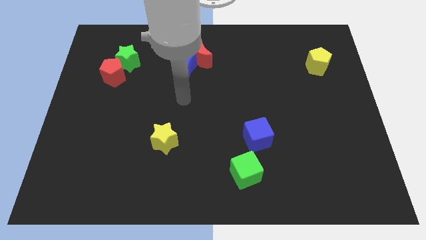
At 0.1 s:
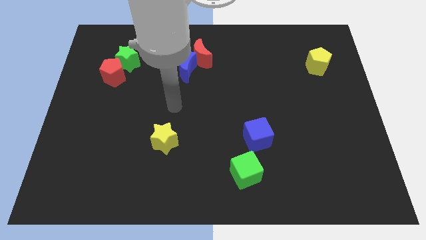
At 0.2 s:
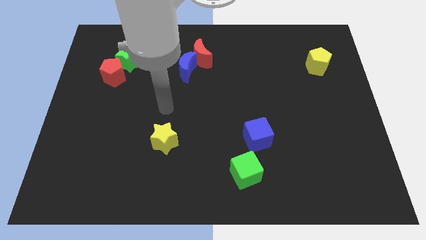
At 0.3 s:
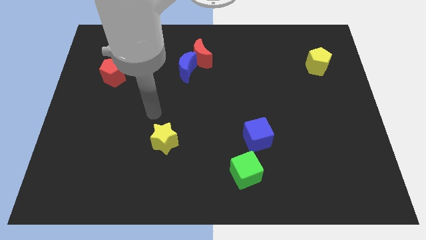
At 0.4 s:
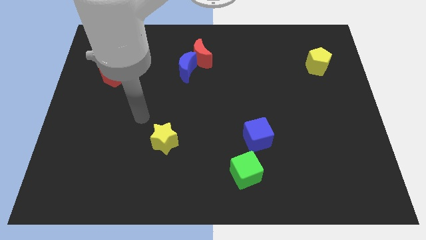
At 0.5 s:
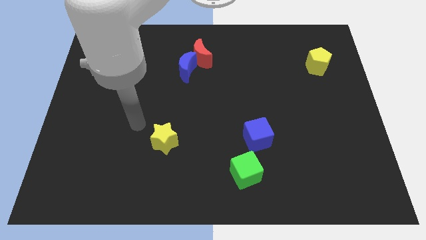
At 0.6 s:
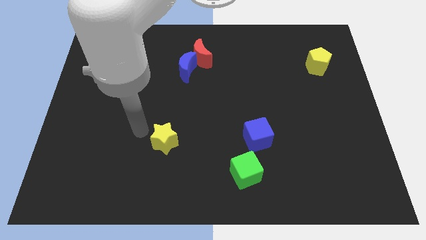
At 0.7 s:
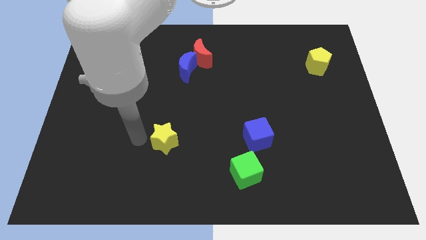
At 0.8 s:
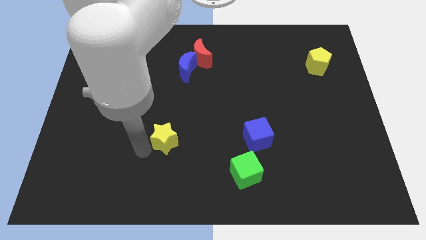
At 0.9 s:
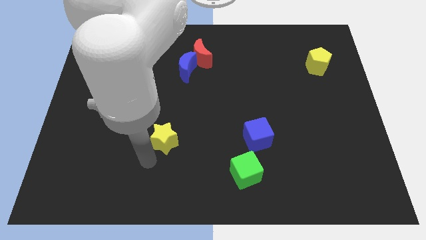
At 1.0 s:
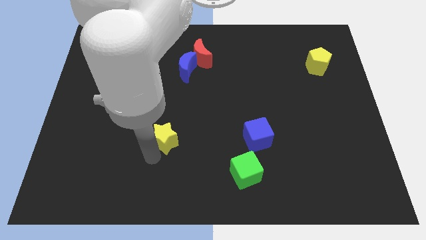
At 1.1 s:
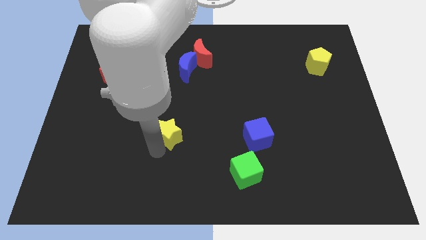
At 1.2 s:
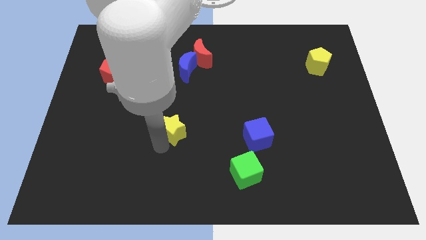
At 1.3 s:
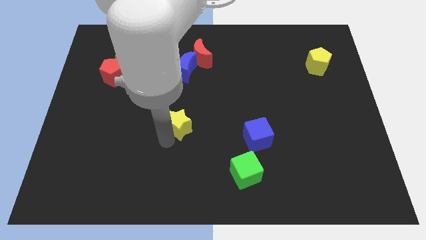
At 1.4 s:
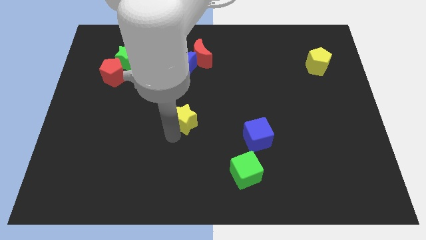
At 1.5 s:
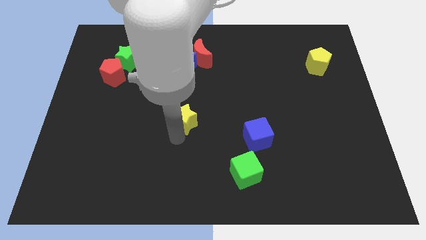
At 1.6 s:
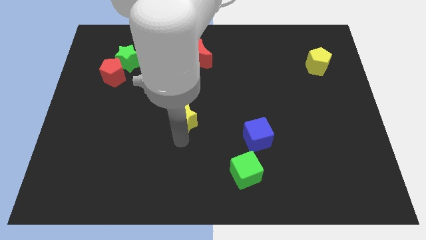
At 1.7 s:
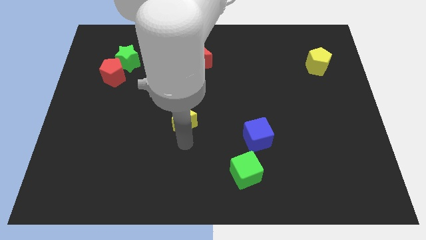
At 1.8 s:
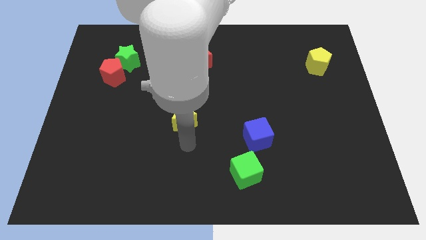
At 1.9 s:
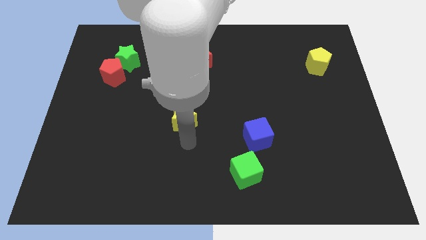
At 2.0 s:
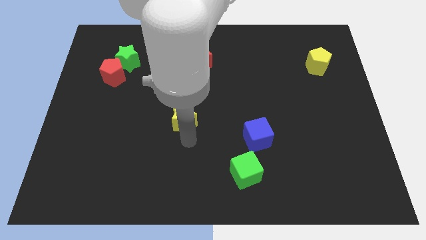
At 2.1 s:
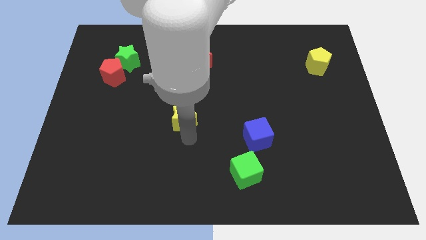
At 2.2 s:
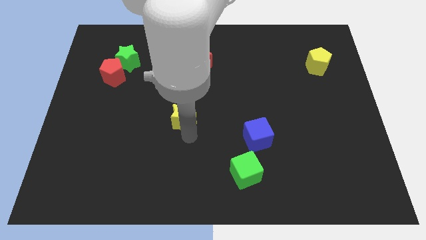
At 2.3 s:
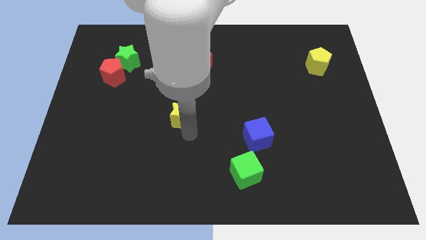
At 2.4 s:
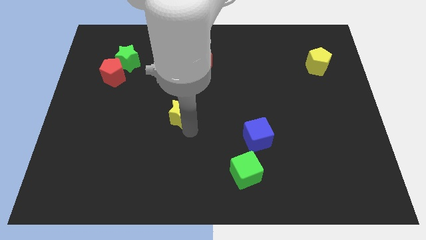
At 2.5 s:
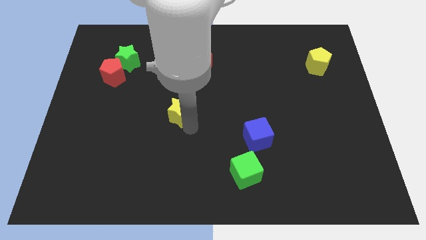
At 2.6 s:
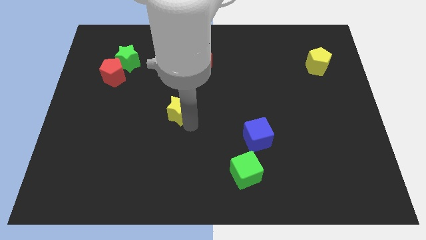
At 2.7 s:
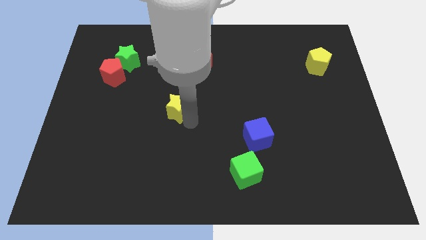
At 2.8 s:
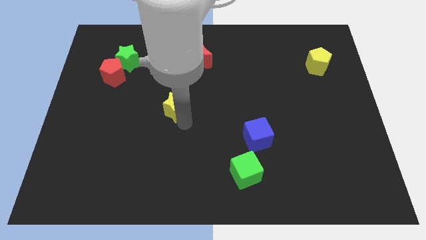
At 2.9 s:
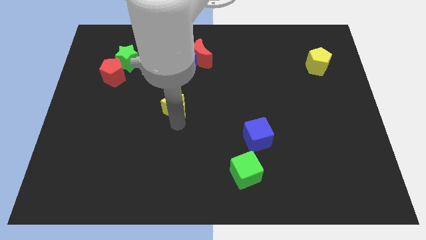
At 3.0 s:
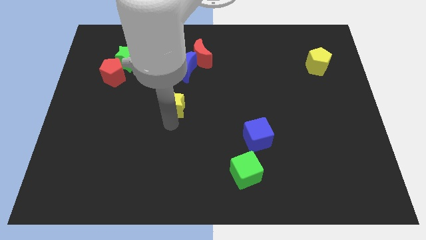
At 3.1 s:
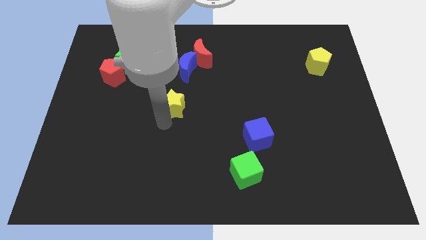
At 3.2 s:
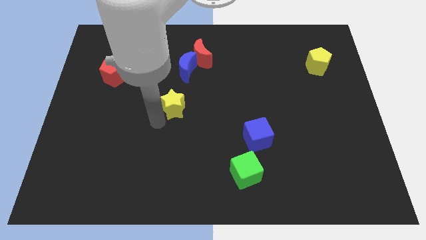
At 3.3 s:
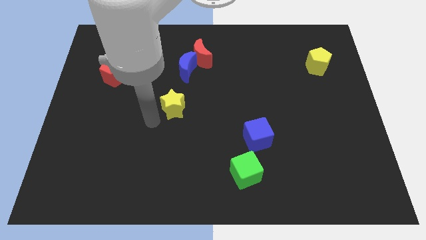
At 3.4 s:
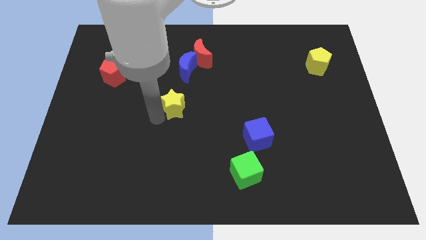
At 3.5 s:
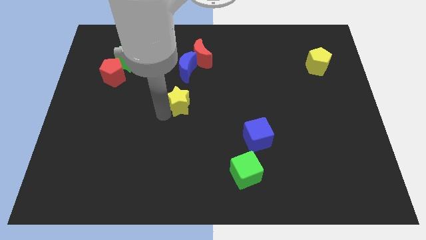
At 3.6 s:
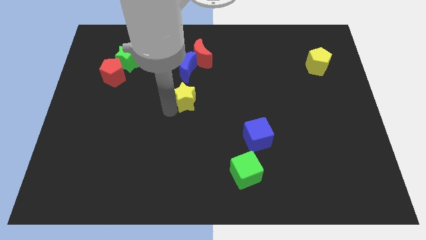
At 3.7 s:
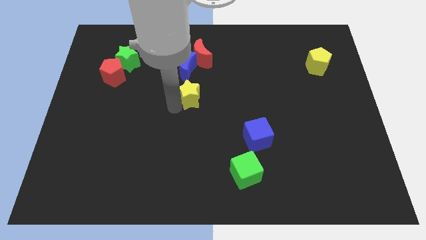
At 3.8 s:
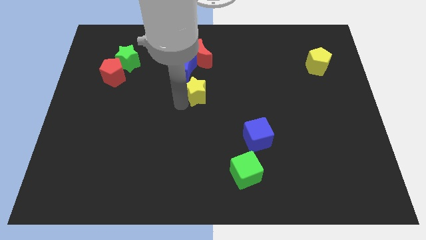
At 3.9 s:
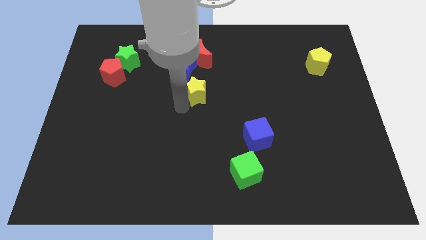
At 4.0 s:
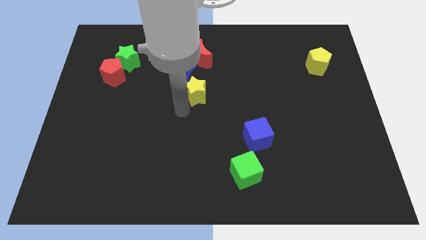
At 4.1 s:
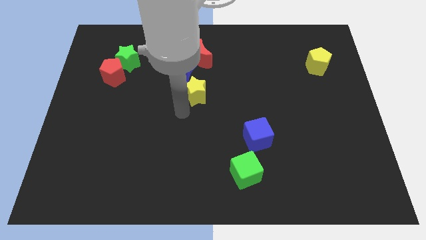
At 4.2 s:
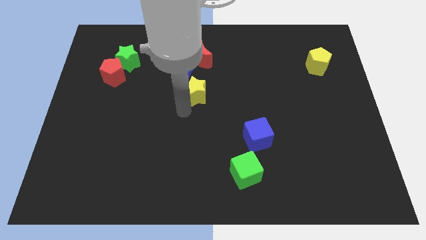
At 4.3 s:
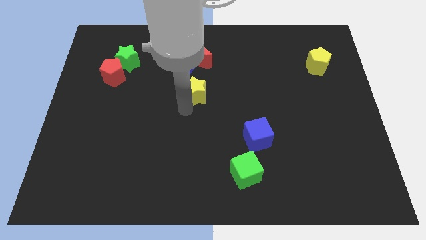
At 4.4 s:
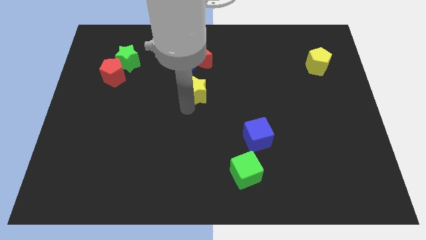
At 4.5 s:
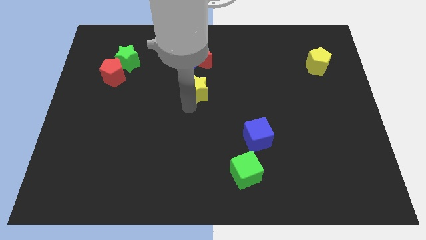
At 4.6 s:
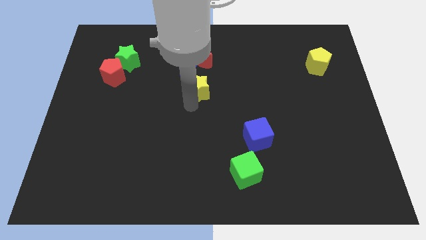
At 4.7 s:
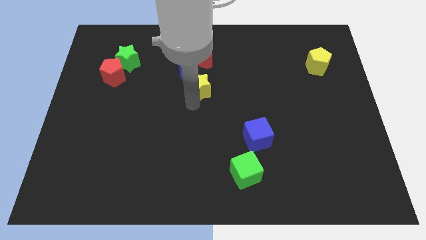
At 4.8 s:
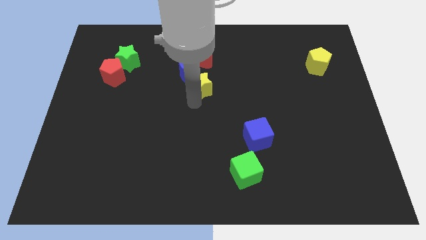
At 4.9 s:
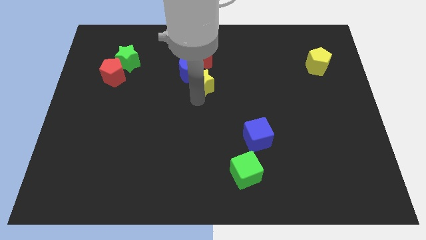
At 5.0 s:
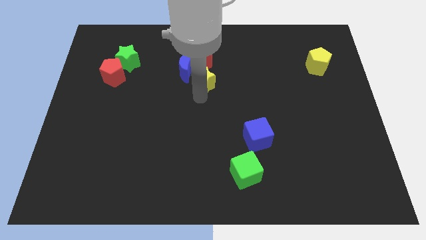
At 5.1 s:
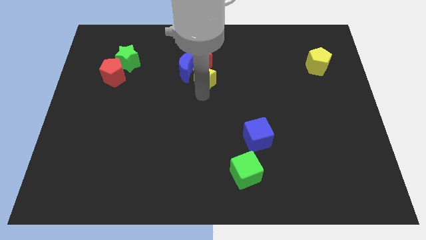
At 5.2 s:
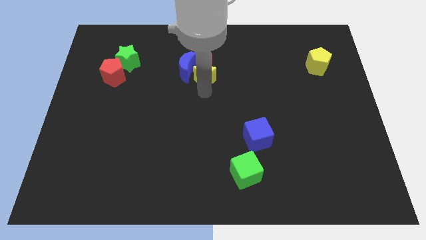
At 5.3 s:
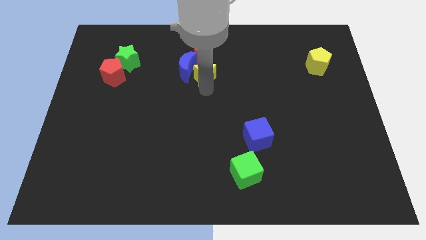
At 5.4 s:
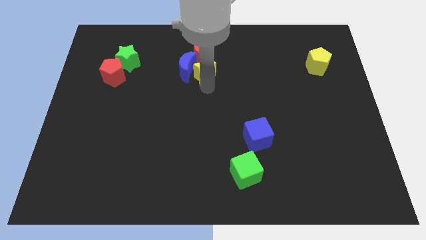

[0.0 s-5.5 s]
slide the yellow star close to the red moon

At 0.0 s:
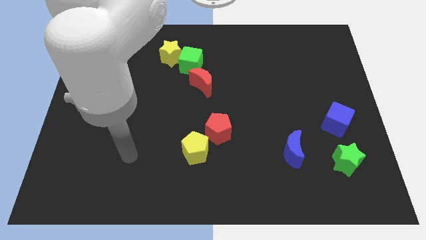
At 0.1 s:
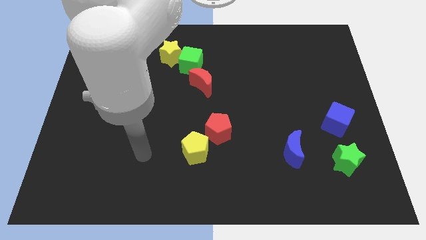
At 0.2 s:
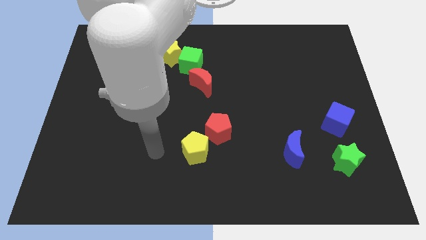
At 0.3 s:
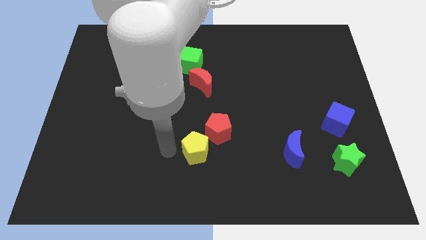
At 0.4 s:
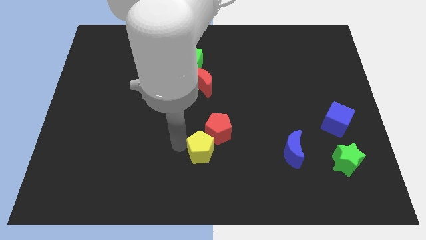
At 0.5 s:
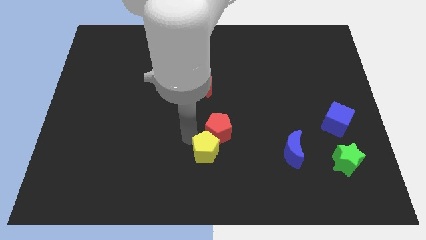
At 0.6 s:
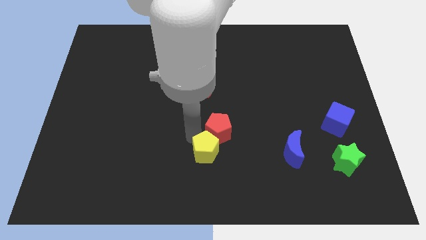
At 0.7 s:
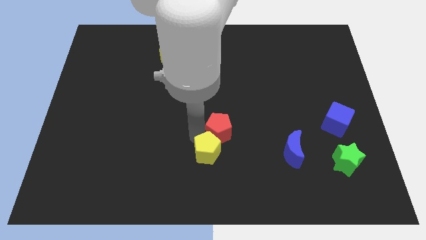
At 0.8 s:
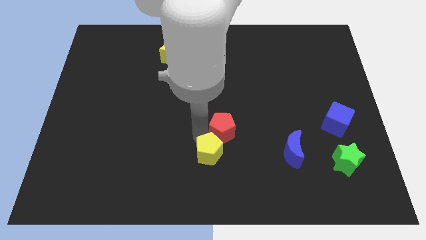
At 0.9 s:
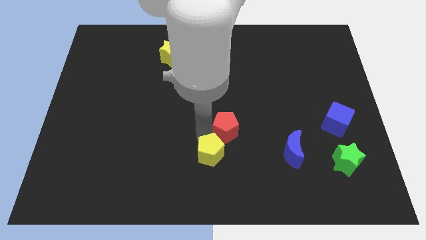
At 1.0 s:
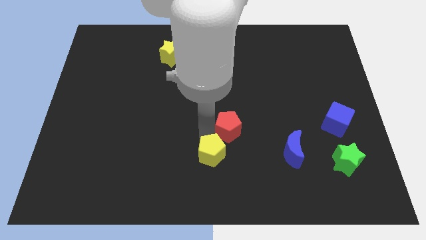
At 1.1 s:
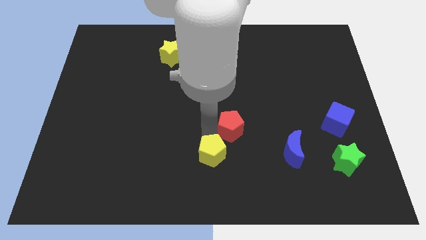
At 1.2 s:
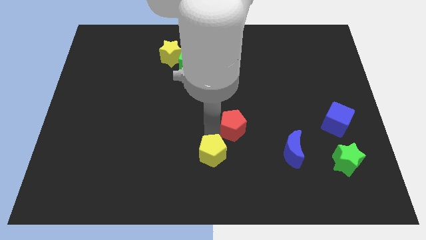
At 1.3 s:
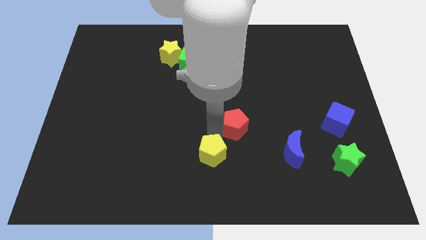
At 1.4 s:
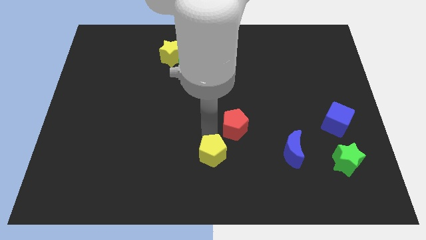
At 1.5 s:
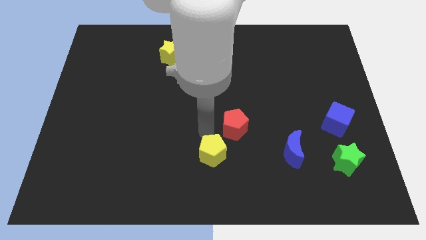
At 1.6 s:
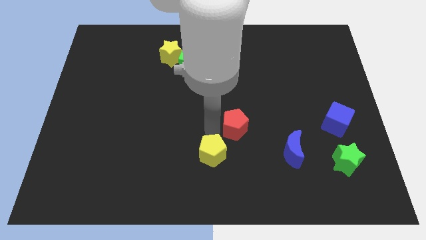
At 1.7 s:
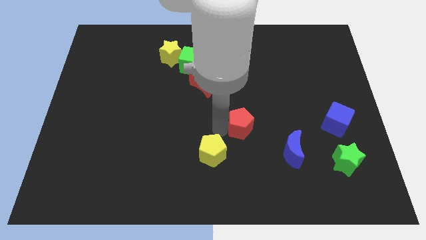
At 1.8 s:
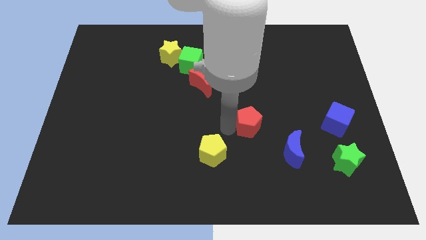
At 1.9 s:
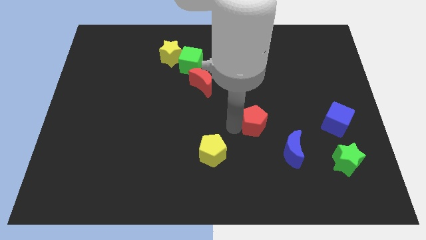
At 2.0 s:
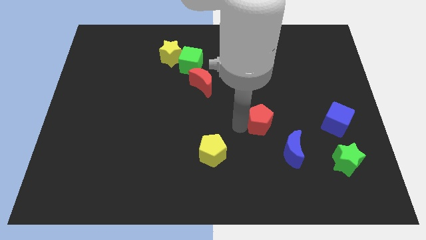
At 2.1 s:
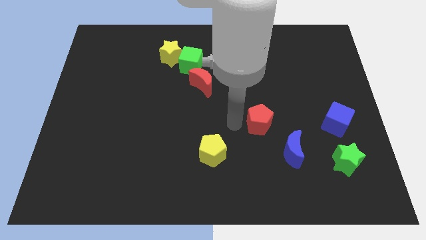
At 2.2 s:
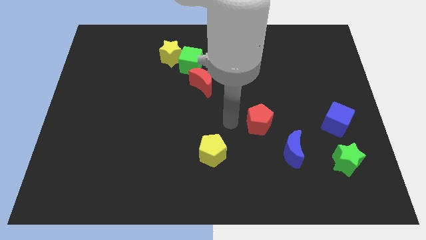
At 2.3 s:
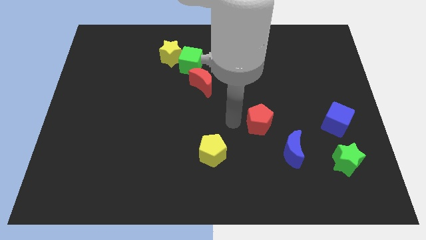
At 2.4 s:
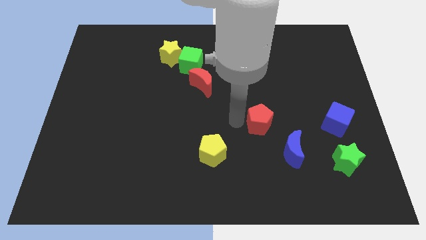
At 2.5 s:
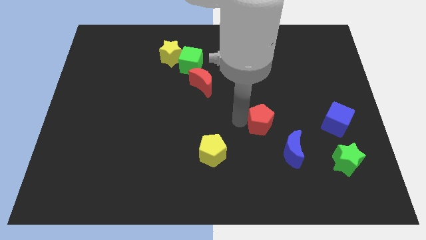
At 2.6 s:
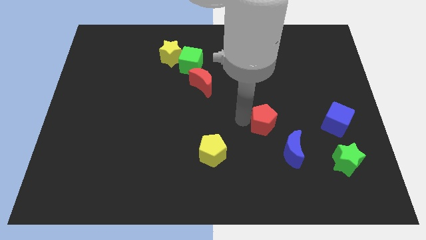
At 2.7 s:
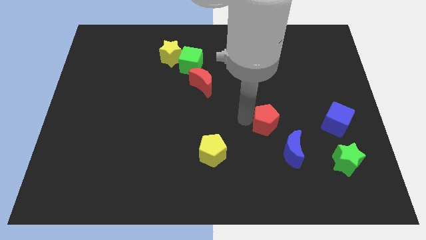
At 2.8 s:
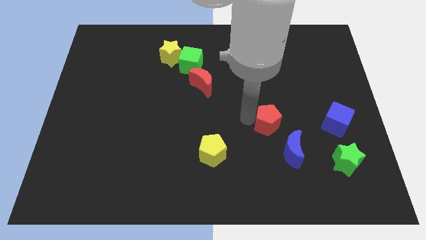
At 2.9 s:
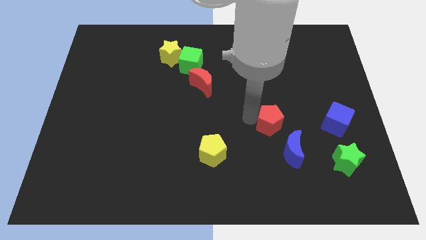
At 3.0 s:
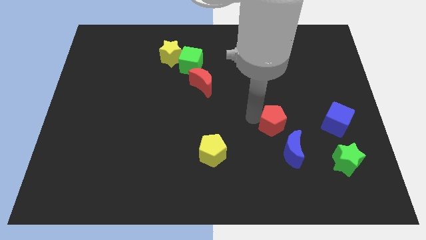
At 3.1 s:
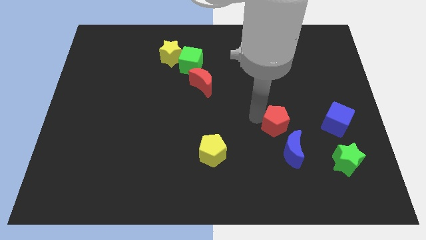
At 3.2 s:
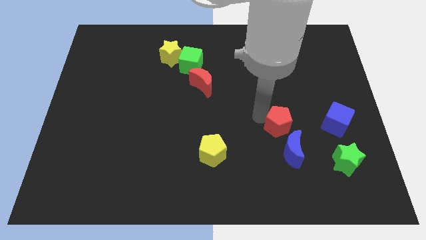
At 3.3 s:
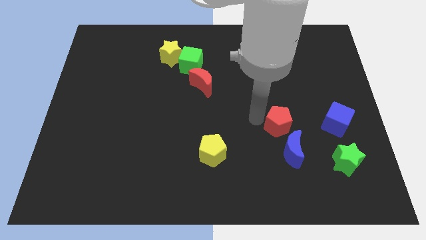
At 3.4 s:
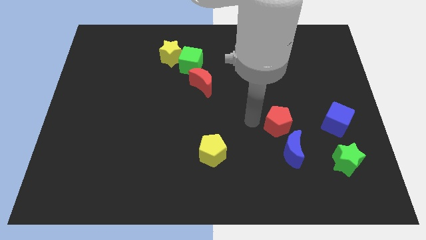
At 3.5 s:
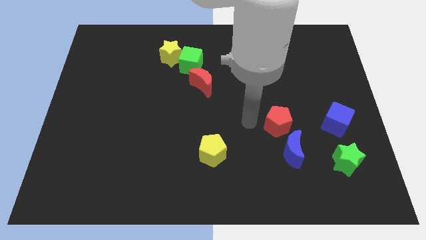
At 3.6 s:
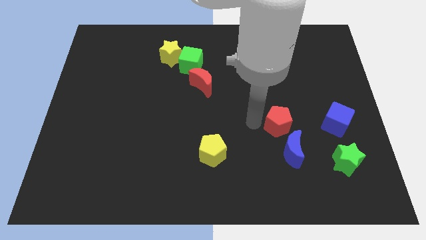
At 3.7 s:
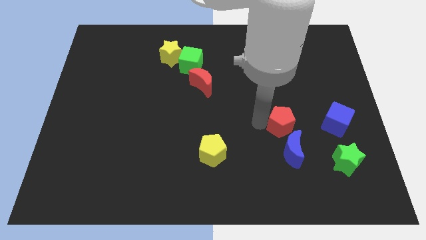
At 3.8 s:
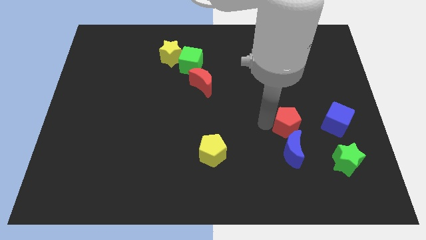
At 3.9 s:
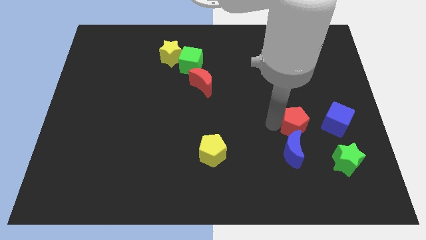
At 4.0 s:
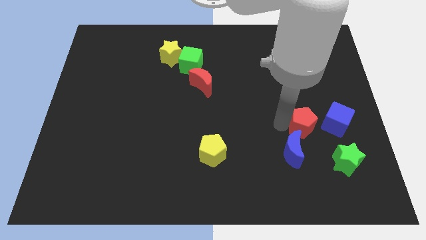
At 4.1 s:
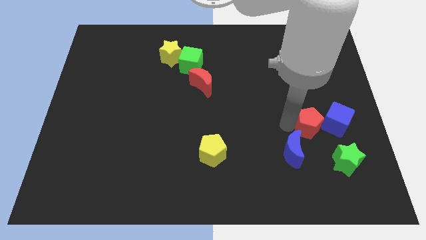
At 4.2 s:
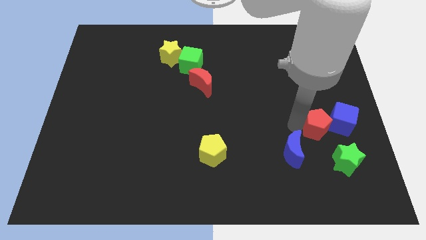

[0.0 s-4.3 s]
move the red pentagon to the blue cube
